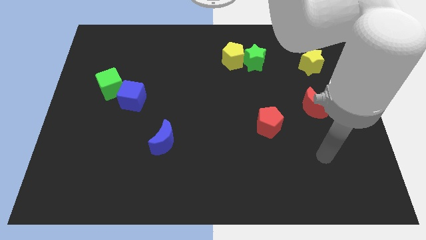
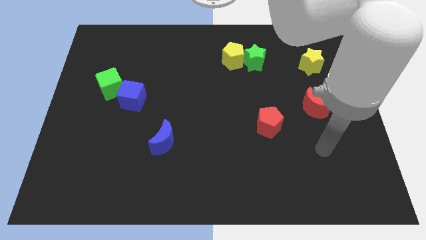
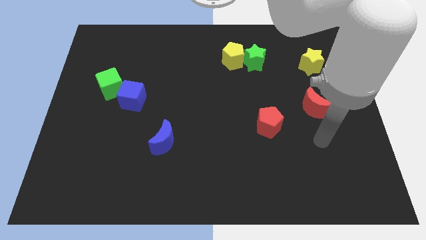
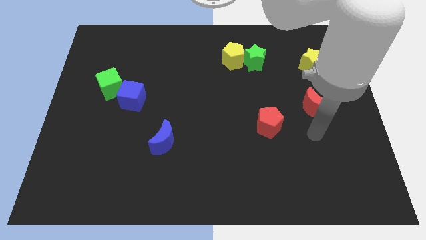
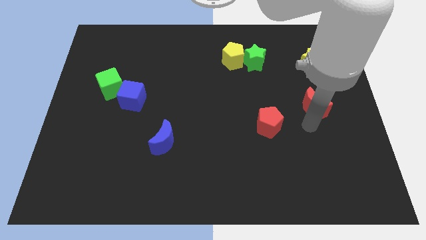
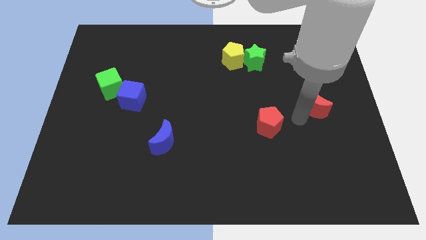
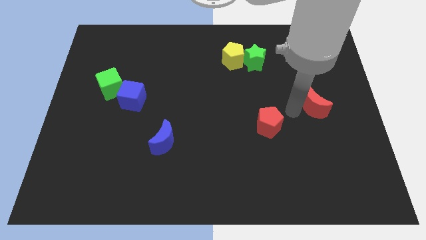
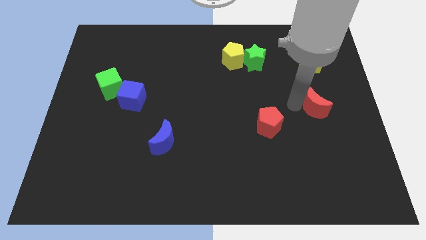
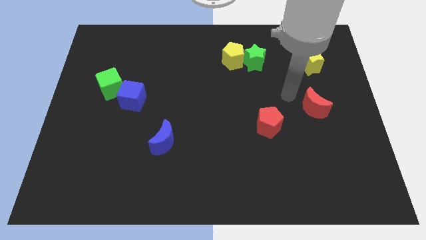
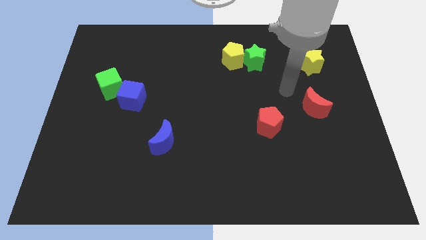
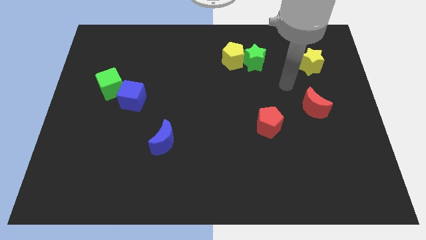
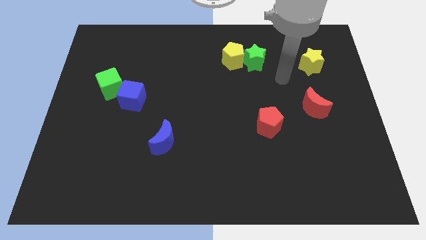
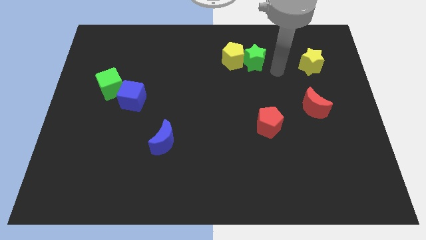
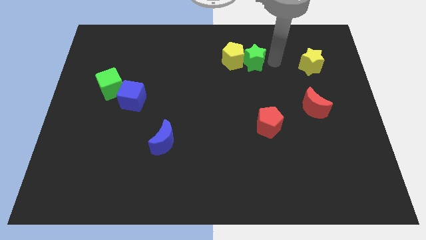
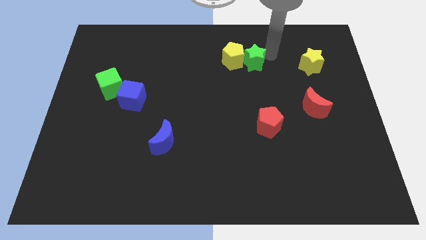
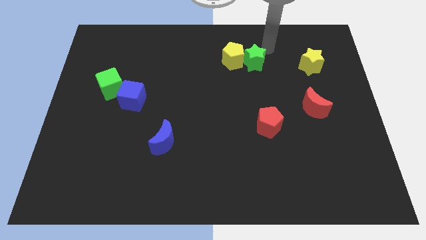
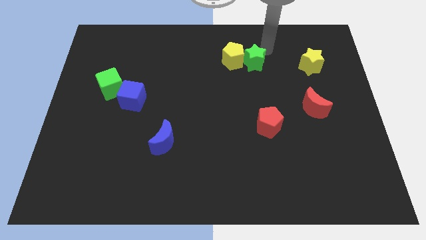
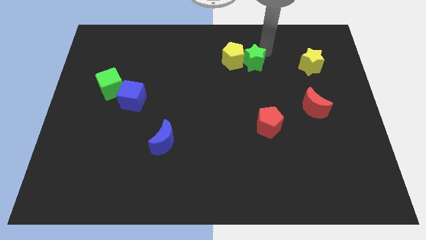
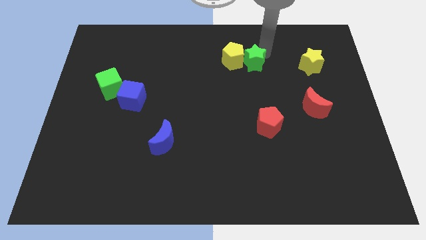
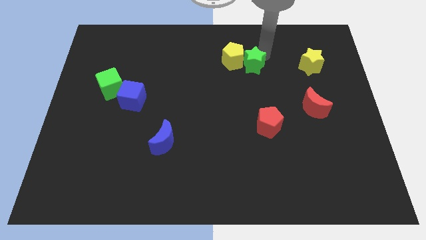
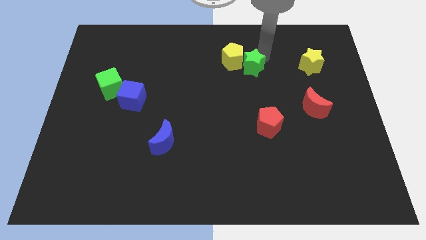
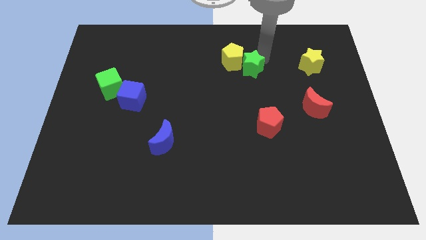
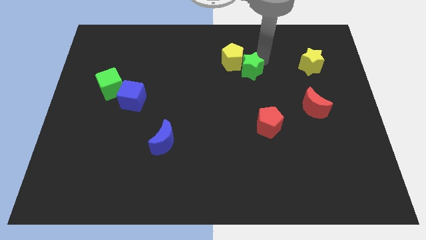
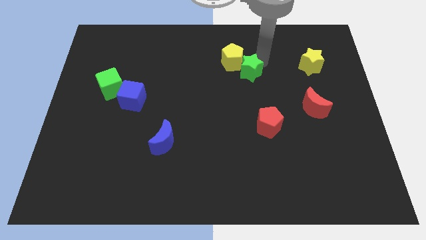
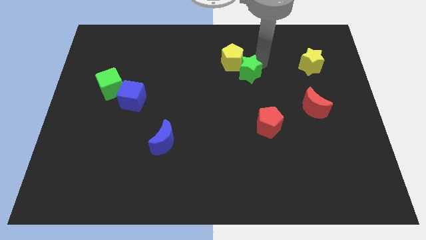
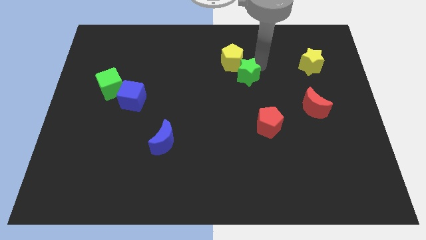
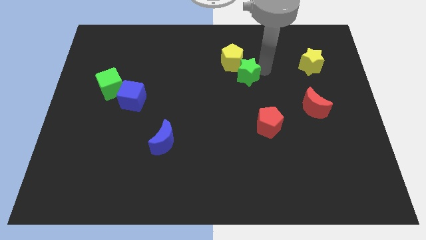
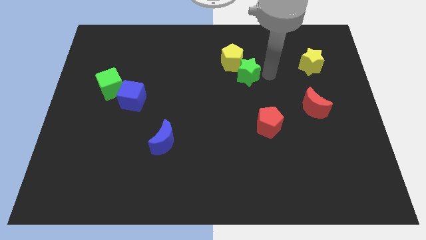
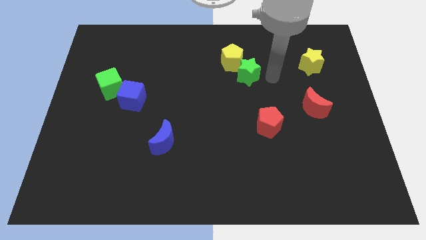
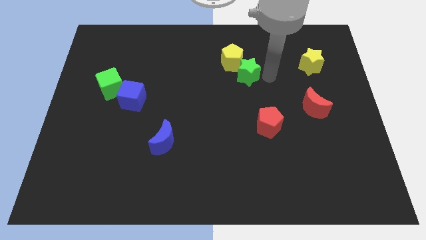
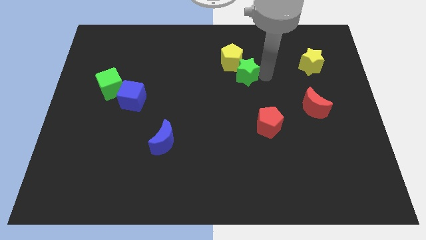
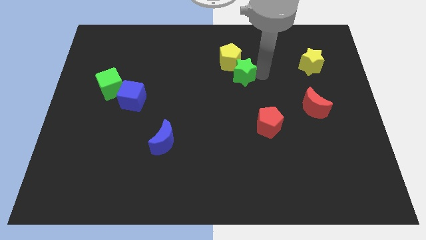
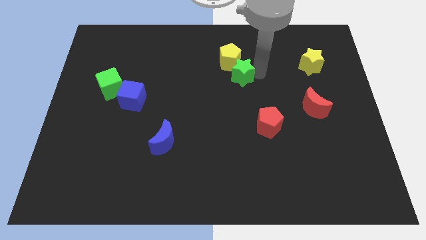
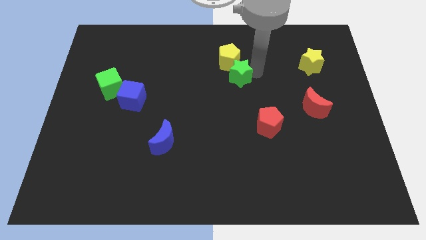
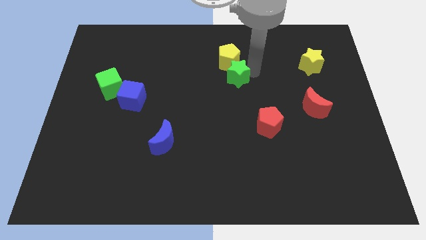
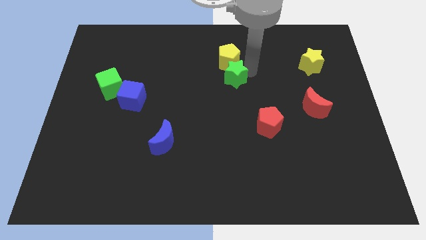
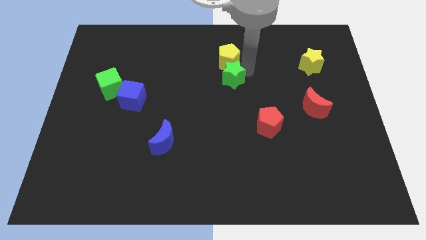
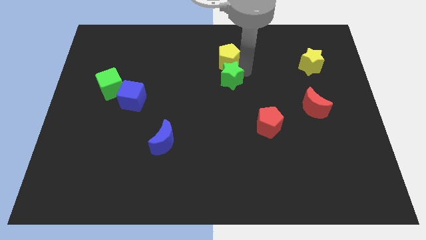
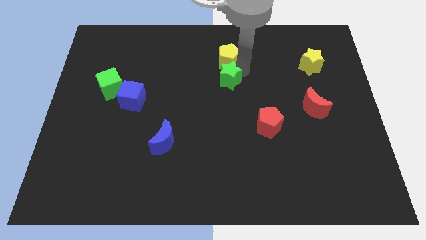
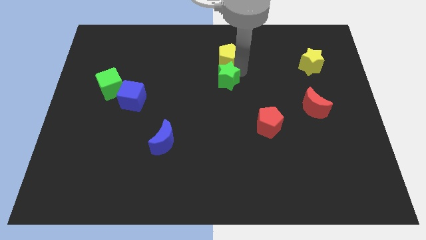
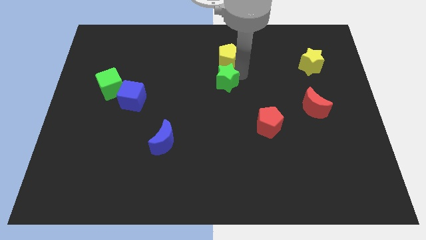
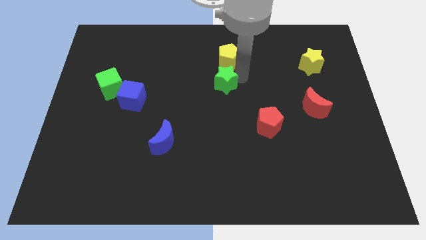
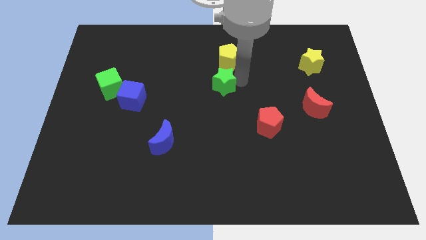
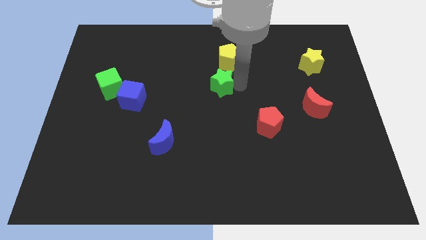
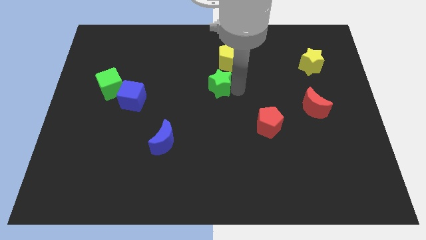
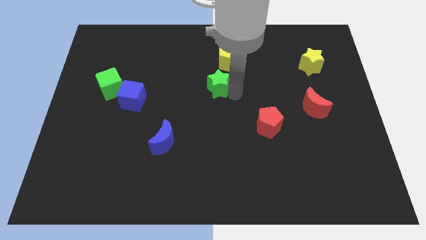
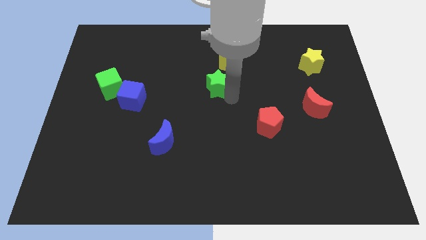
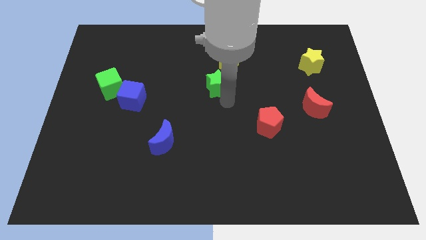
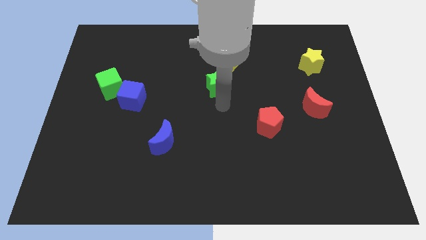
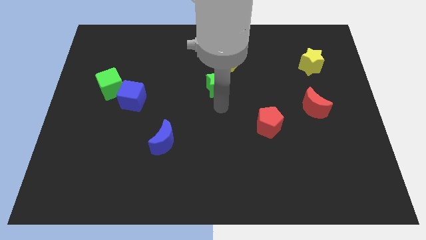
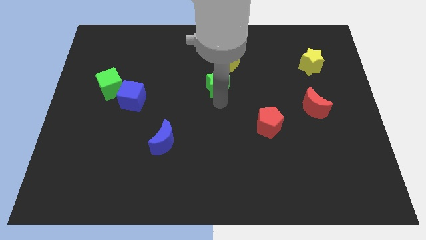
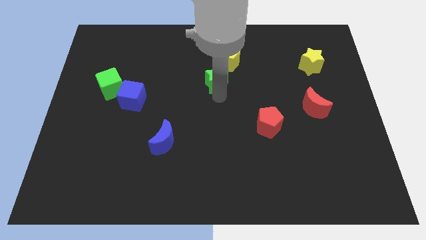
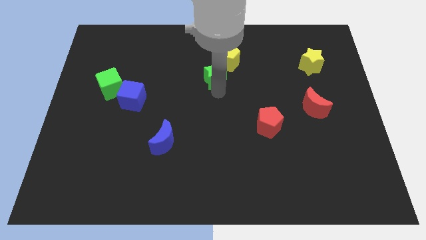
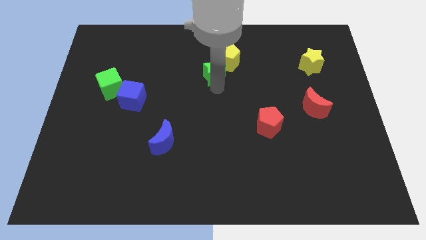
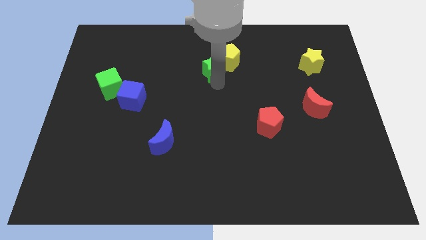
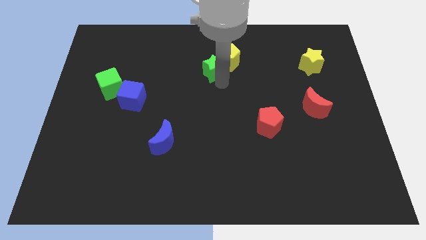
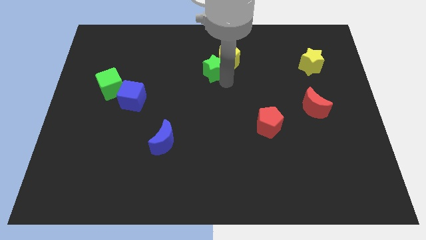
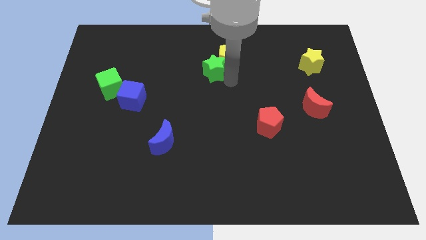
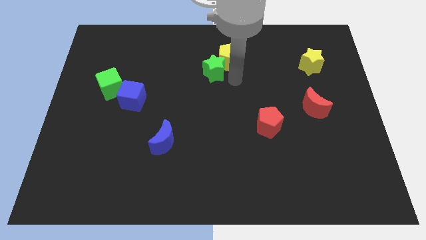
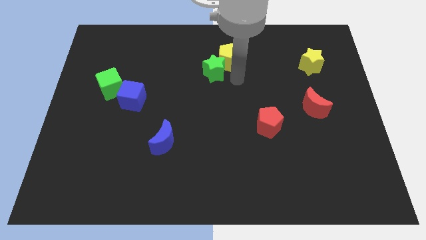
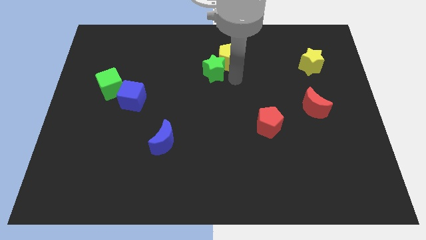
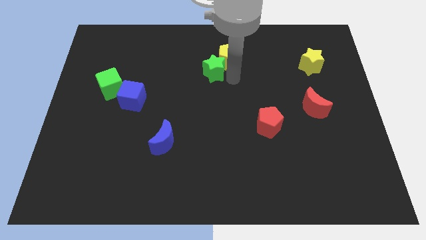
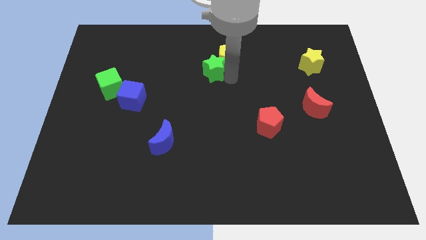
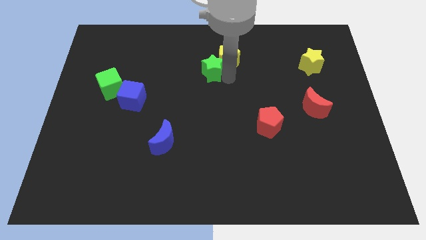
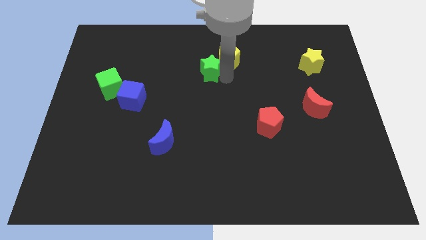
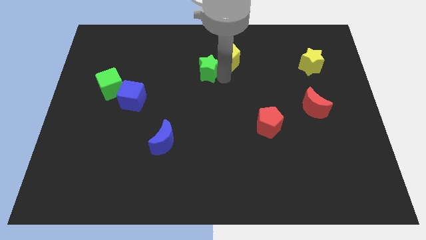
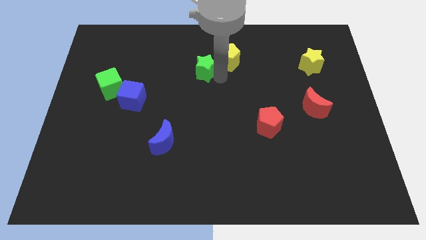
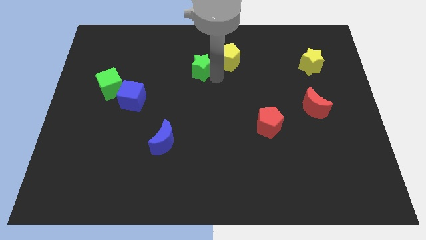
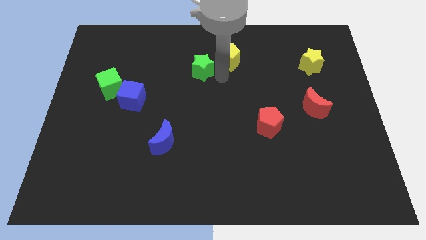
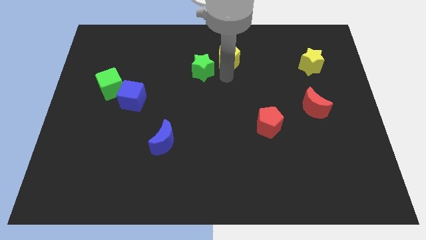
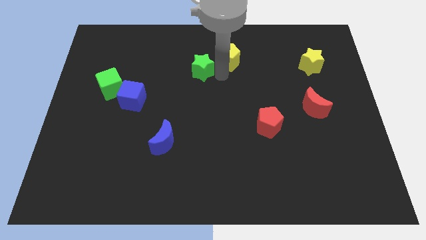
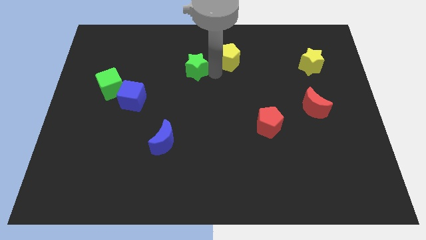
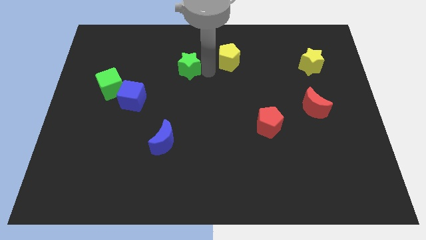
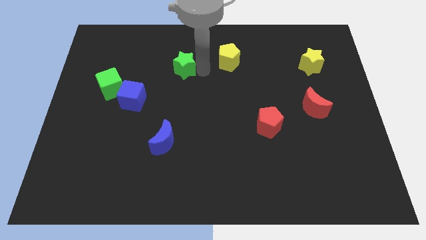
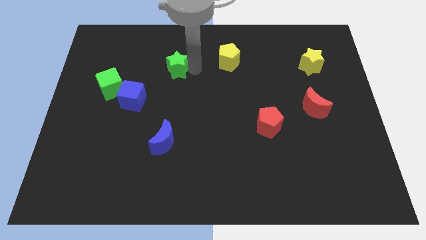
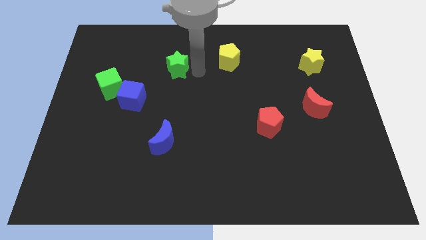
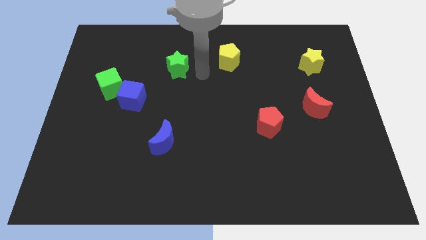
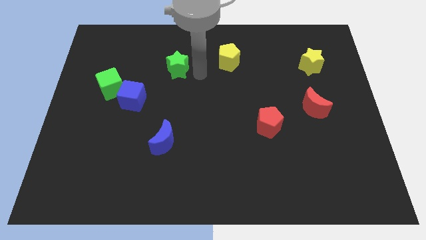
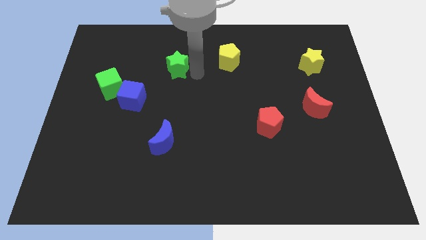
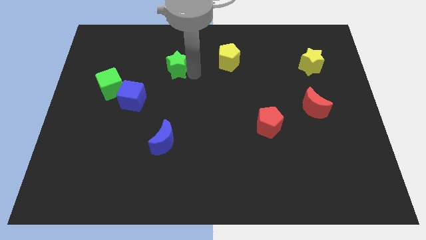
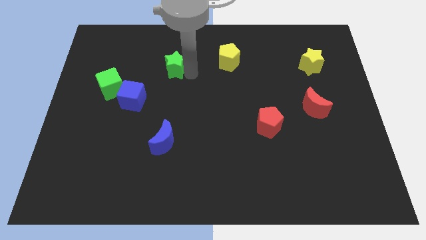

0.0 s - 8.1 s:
push the green star to the left

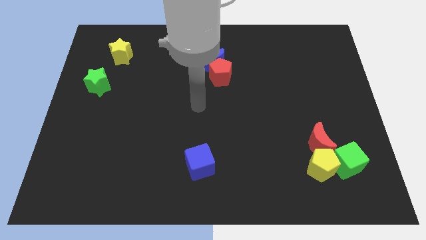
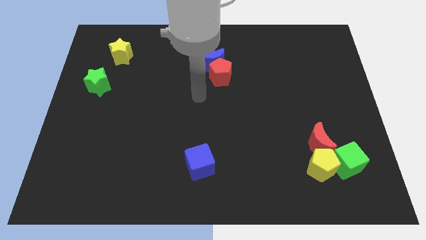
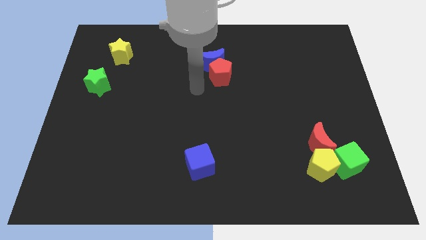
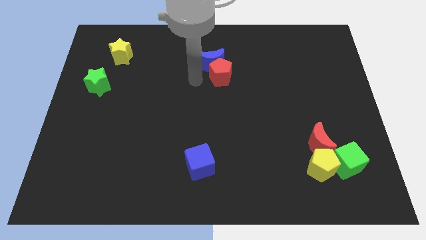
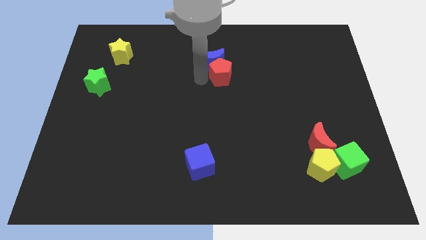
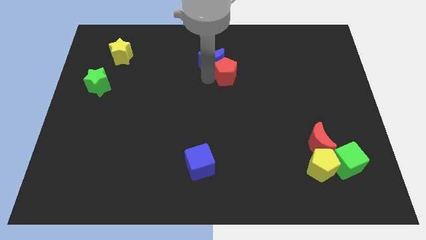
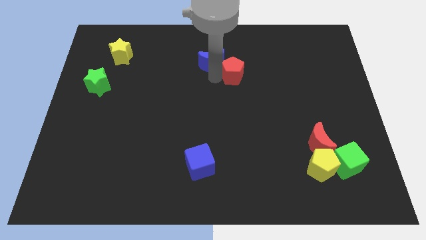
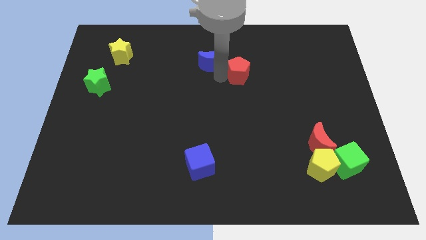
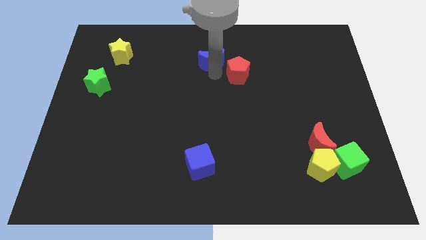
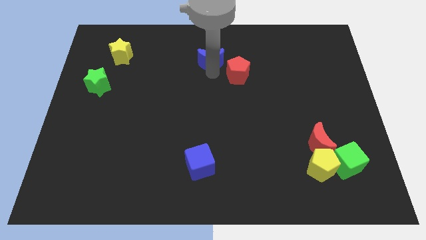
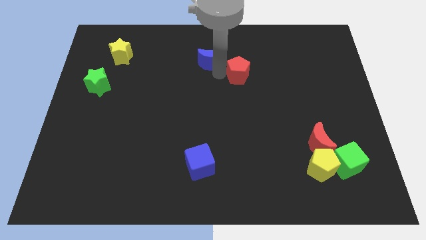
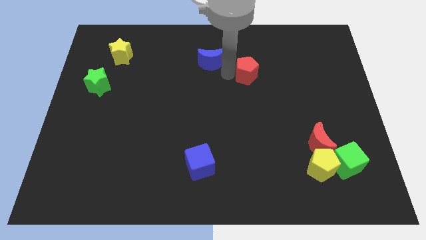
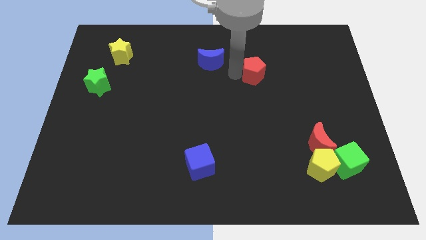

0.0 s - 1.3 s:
slightly slide the red pentagon to the right
